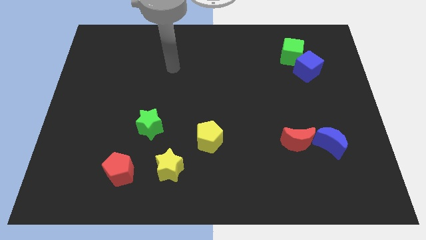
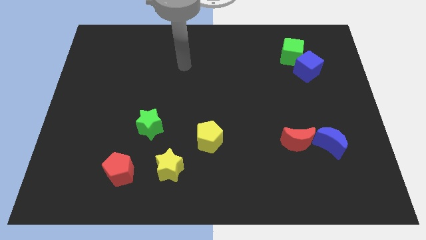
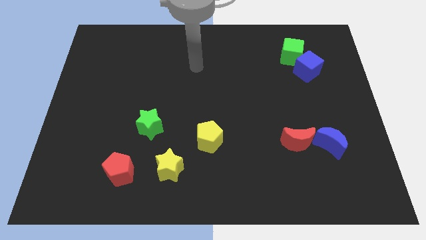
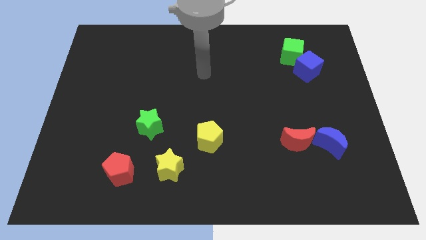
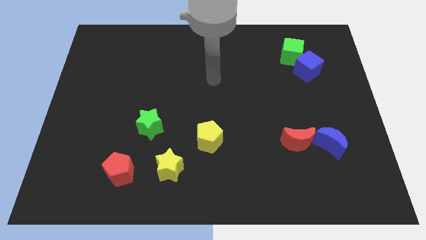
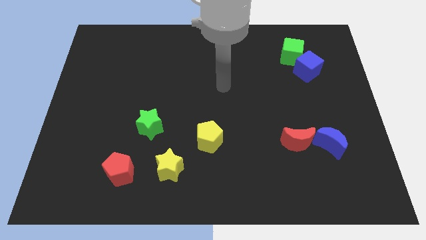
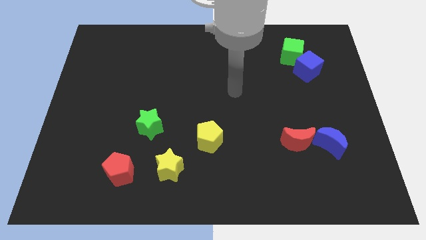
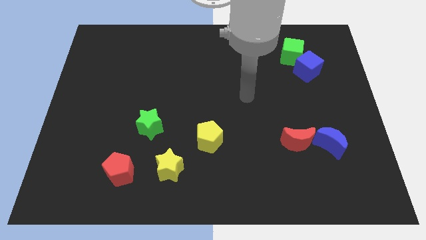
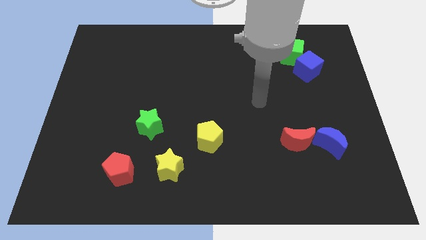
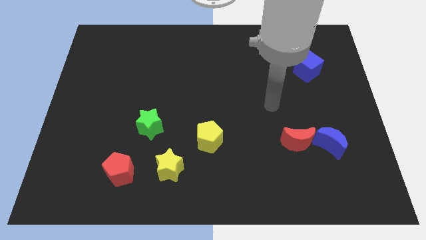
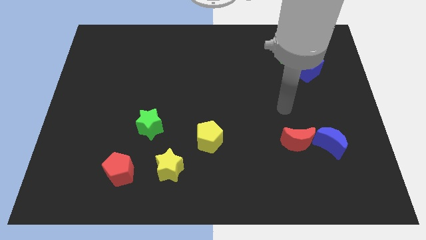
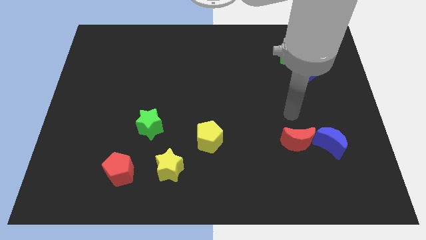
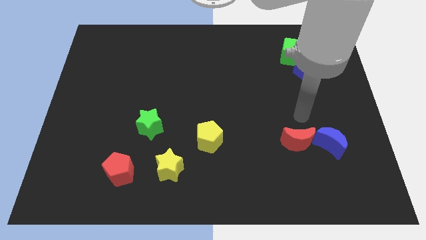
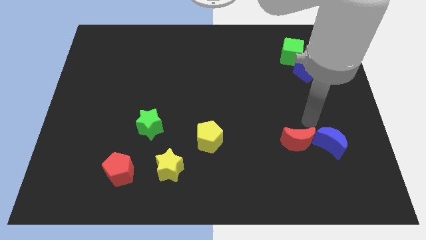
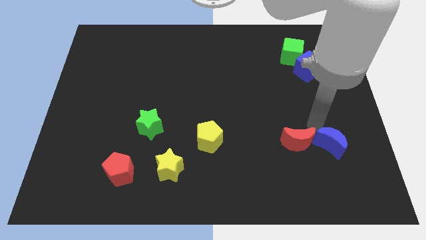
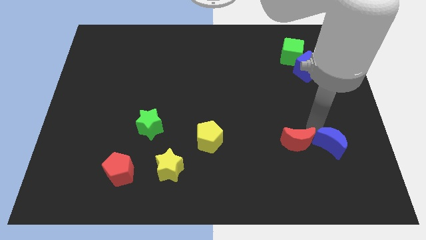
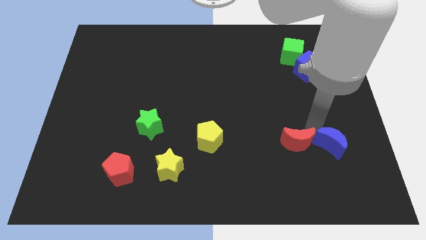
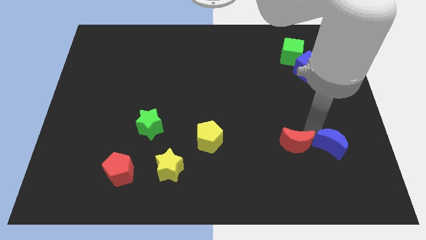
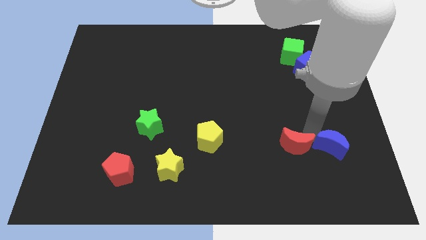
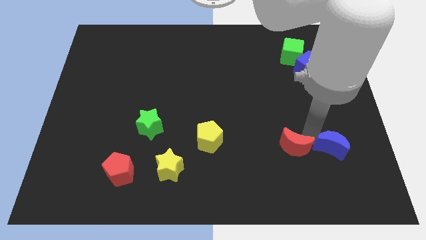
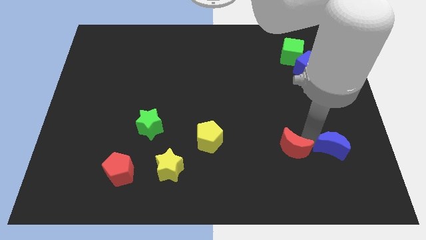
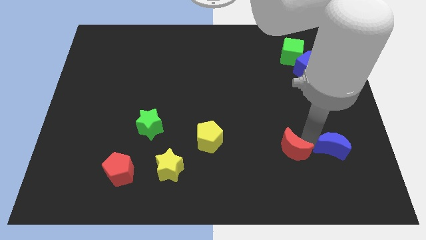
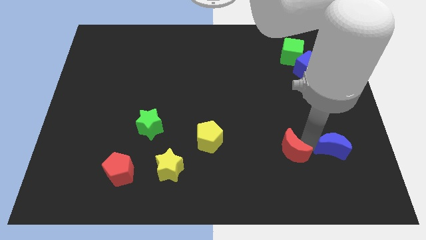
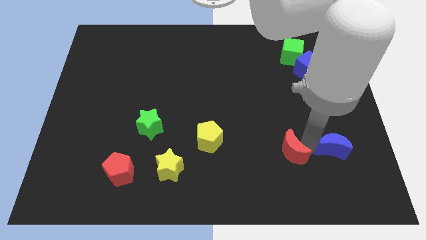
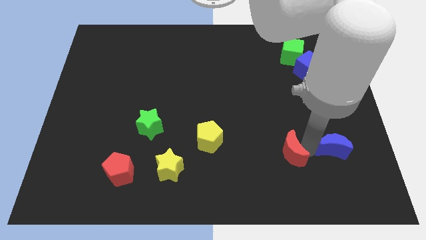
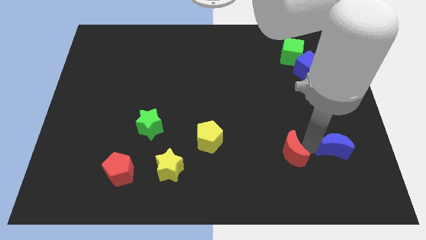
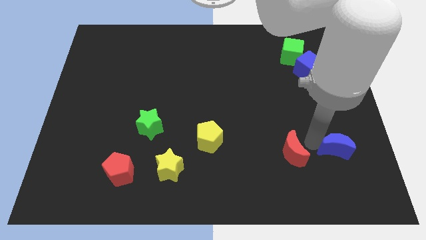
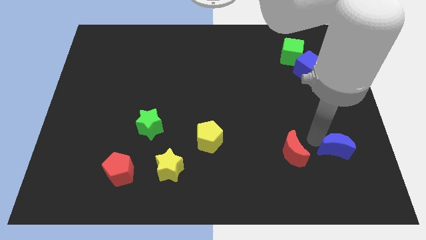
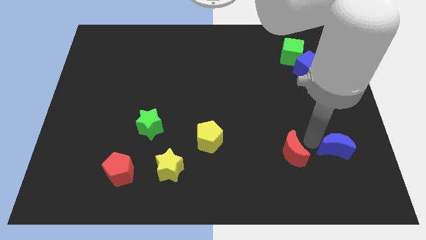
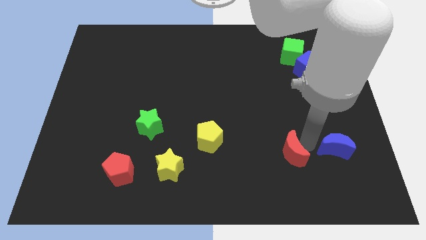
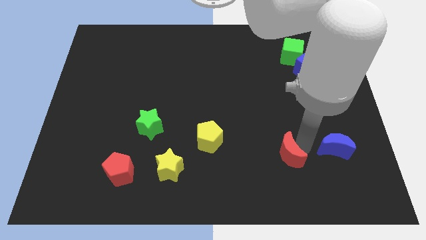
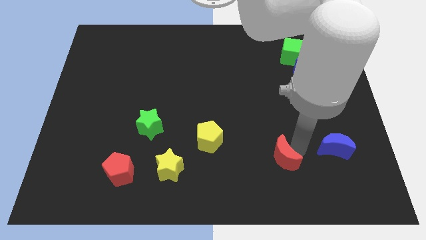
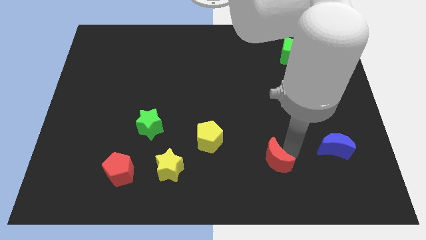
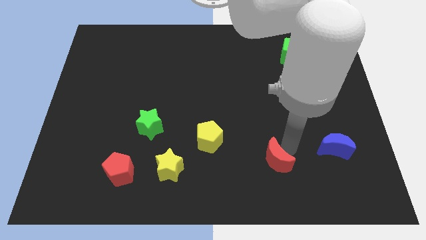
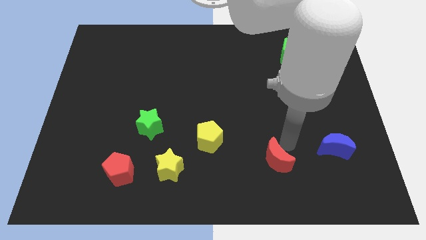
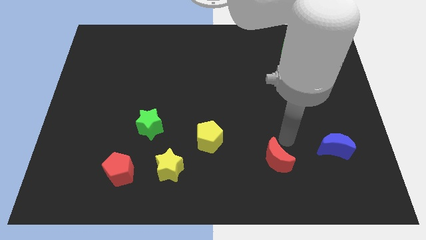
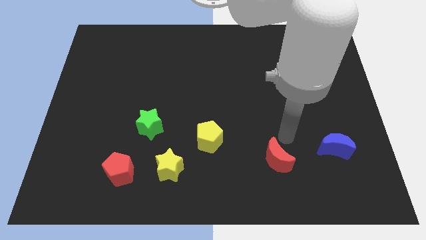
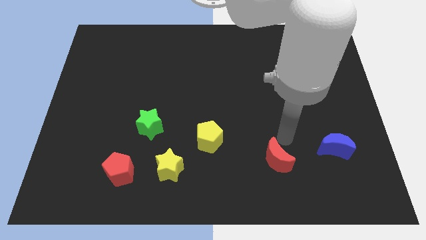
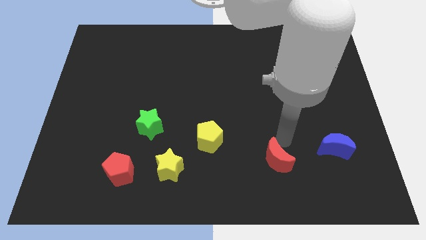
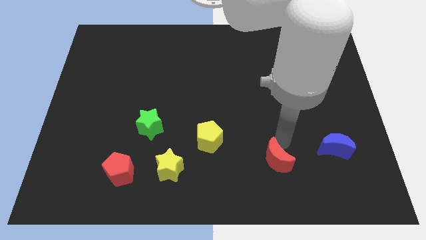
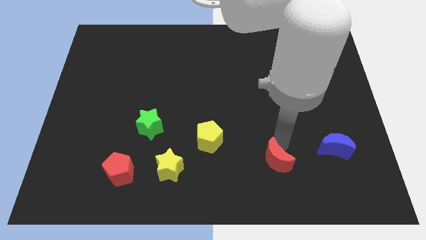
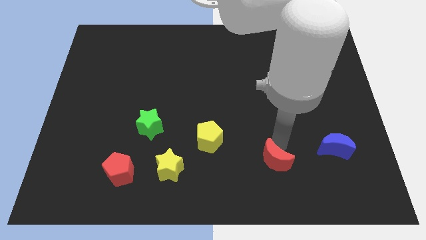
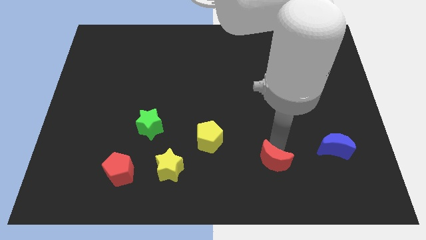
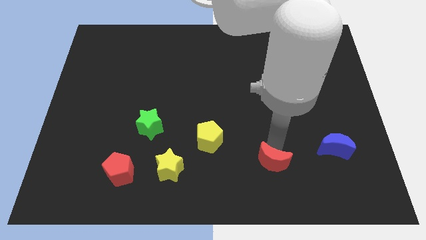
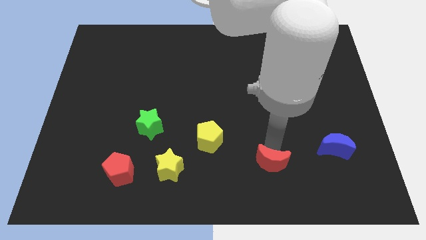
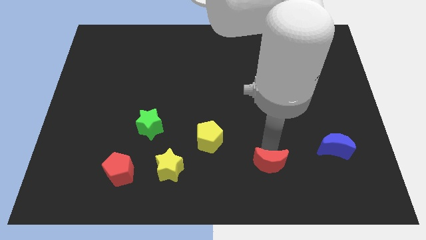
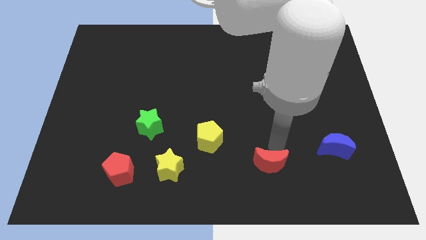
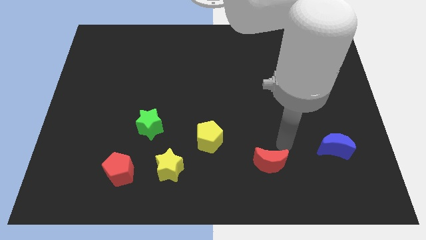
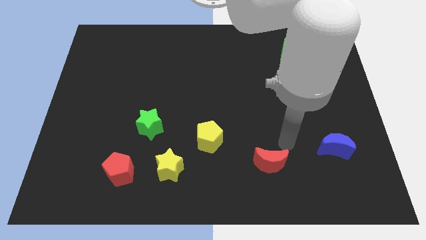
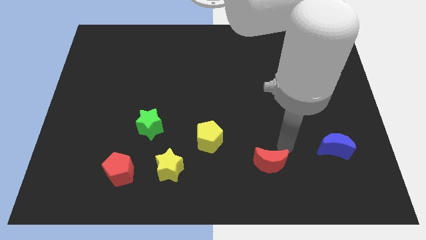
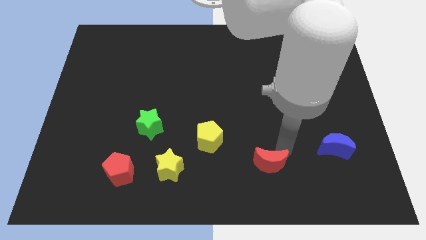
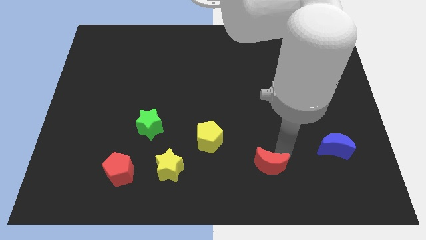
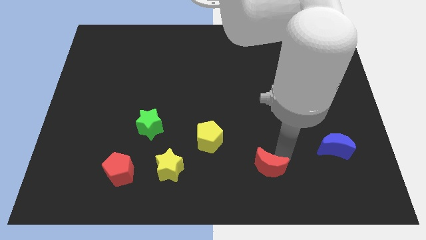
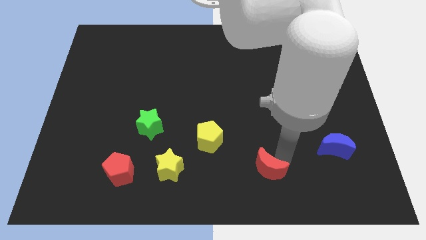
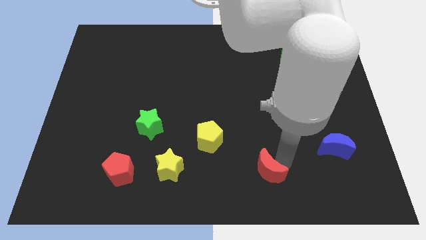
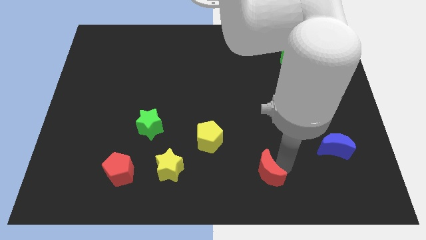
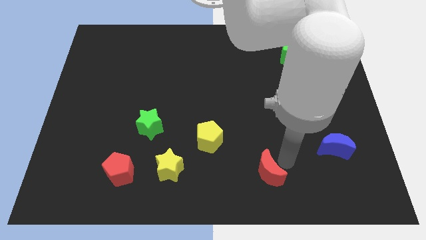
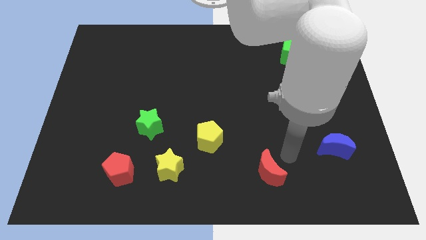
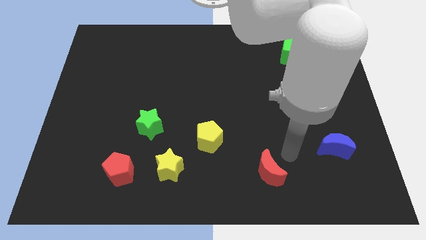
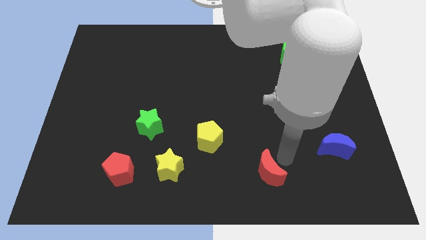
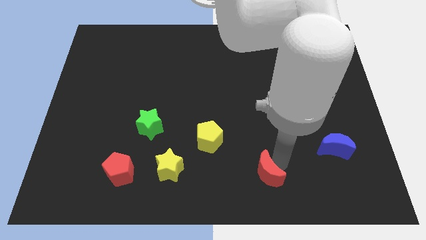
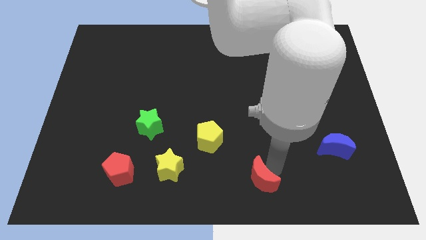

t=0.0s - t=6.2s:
push the red moon to the bottom side

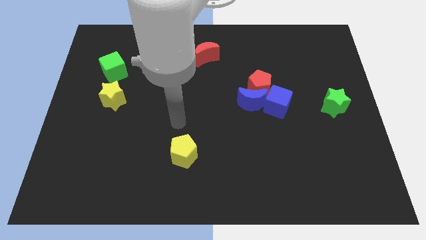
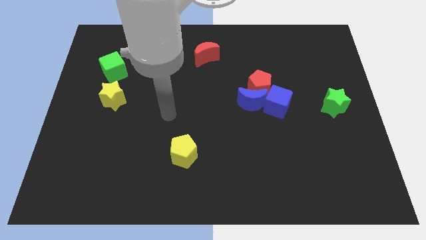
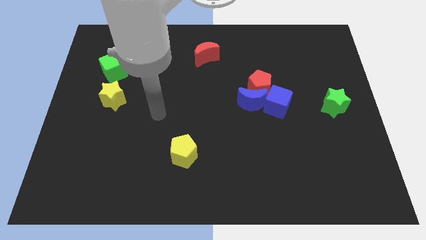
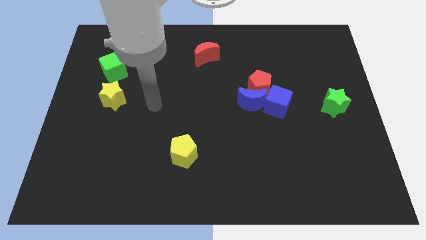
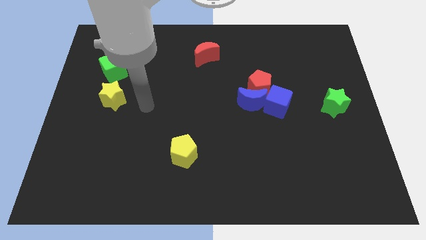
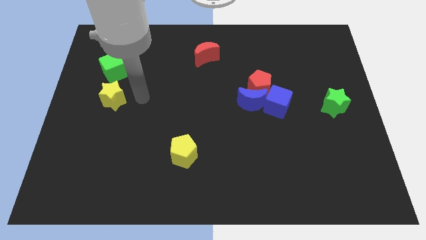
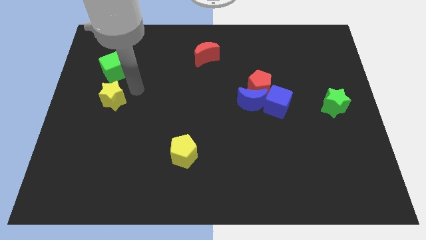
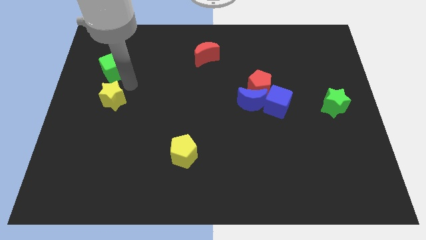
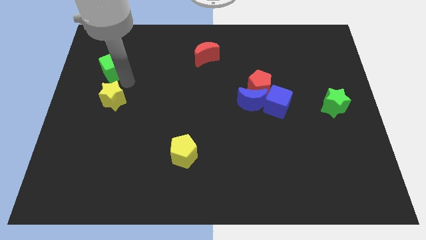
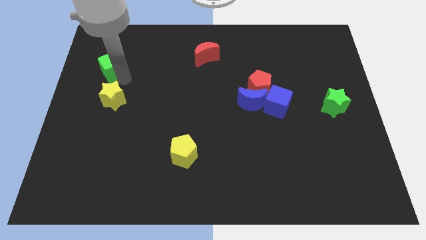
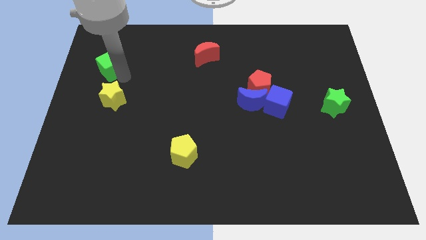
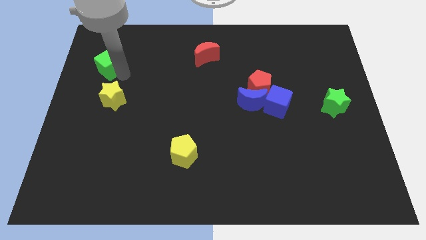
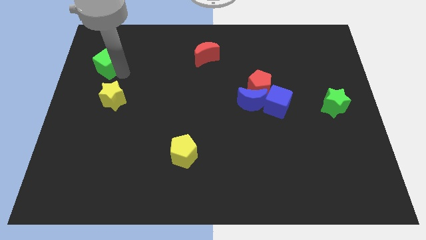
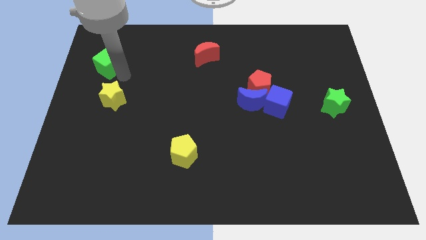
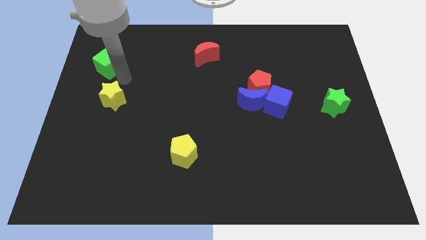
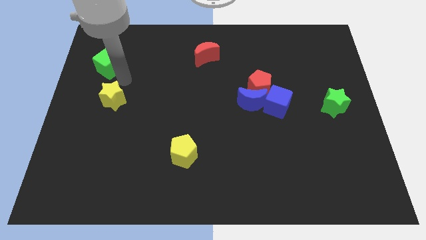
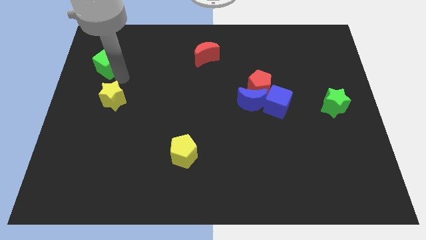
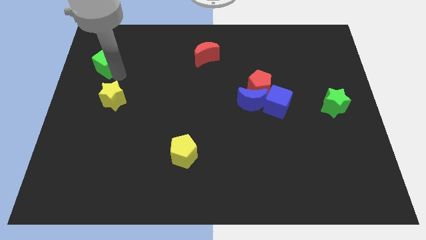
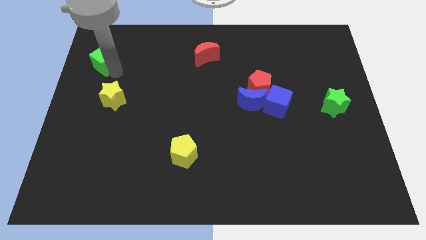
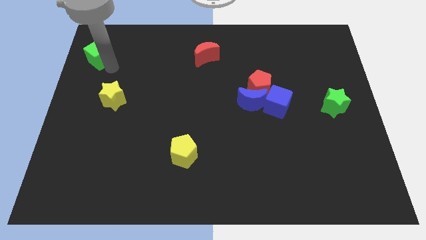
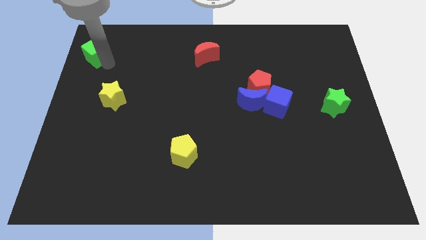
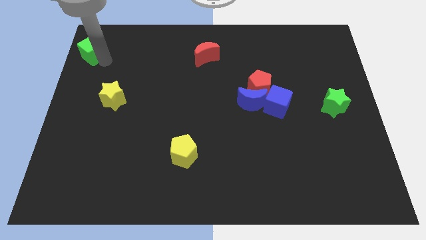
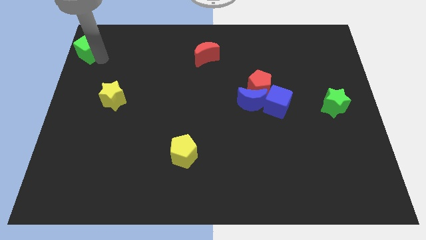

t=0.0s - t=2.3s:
slide the green cube to the top left of the board
